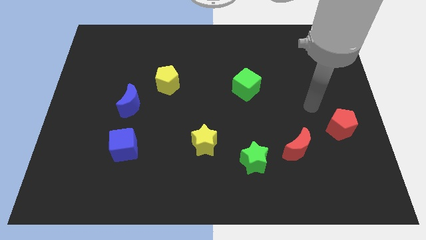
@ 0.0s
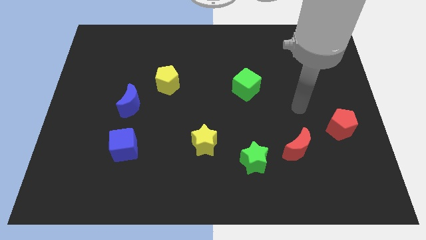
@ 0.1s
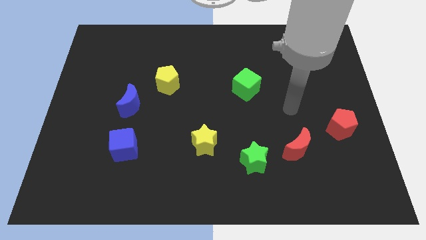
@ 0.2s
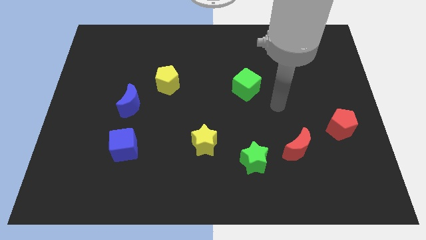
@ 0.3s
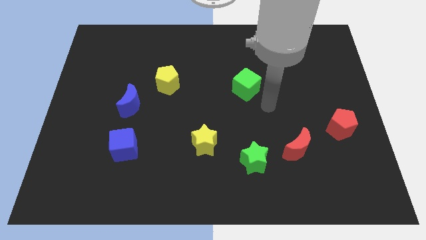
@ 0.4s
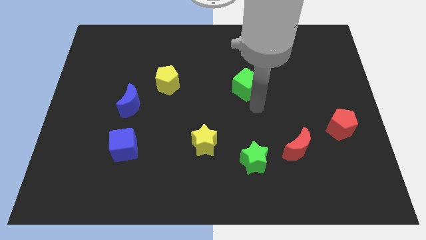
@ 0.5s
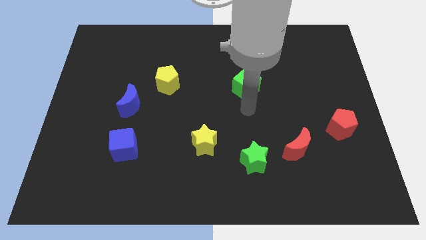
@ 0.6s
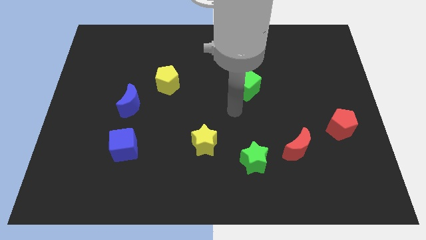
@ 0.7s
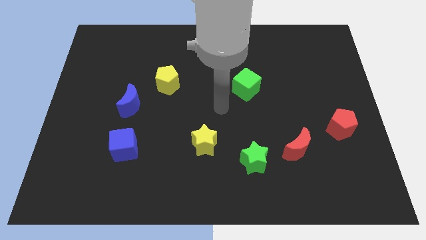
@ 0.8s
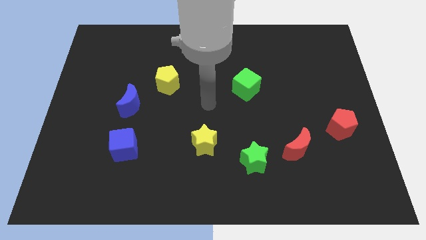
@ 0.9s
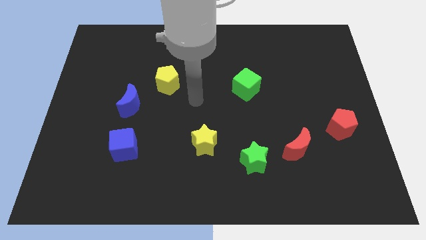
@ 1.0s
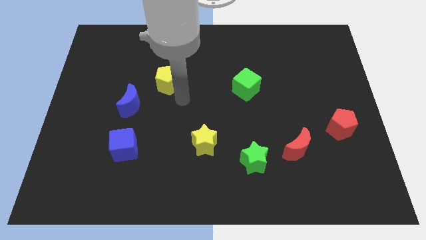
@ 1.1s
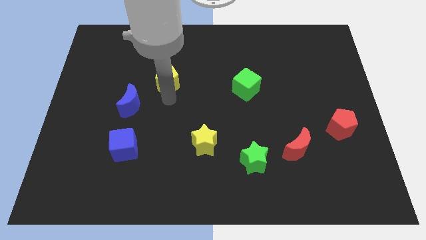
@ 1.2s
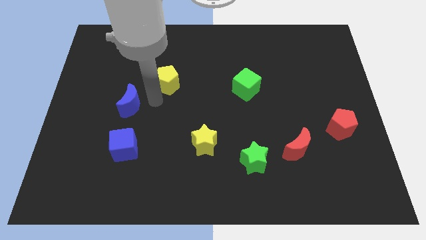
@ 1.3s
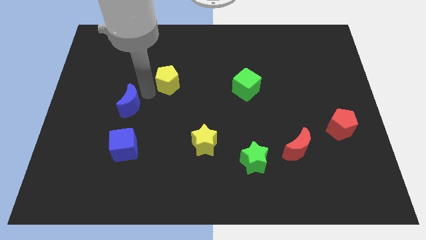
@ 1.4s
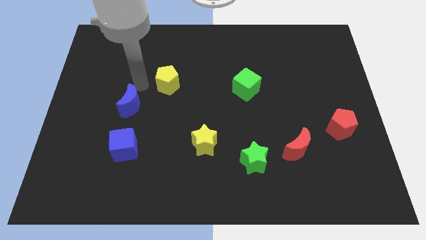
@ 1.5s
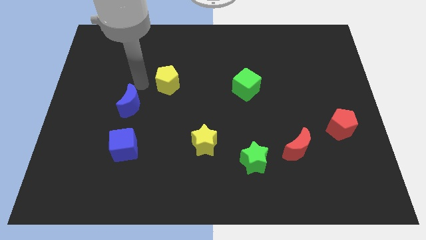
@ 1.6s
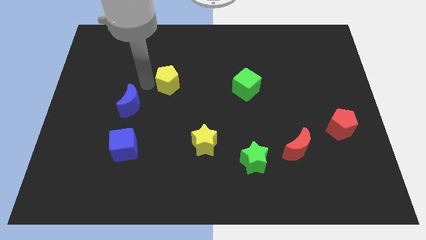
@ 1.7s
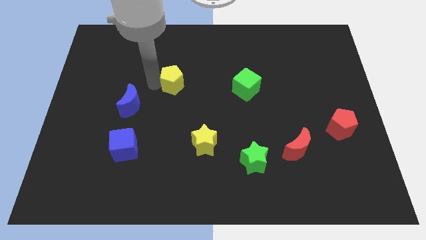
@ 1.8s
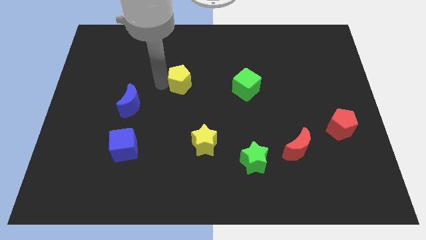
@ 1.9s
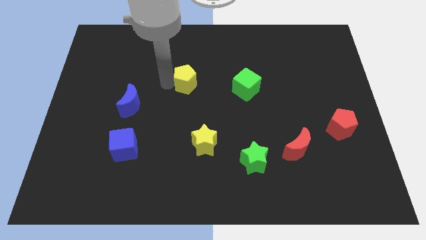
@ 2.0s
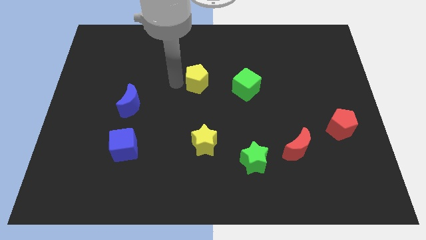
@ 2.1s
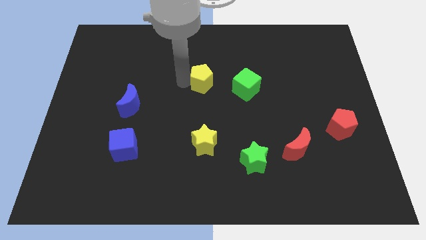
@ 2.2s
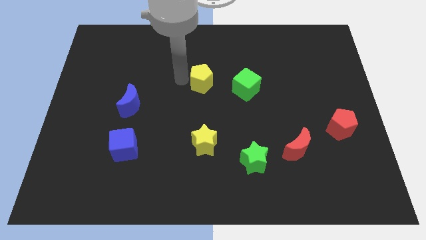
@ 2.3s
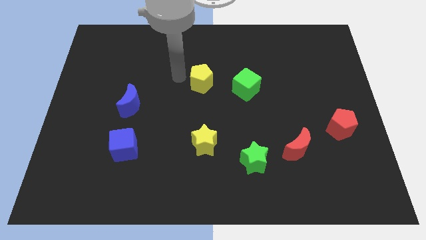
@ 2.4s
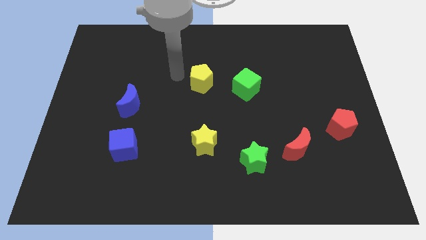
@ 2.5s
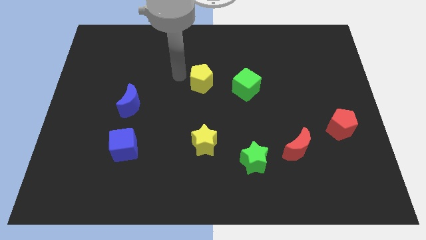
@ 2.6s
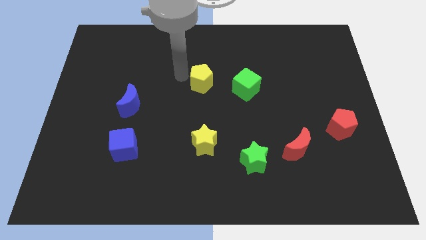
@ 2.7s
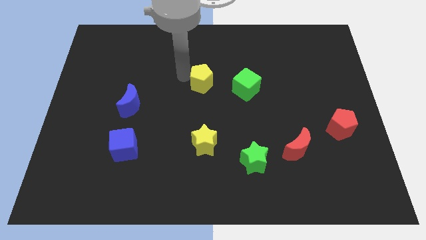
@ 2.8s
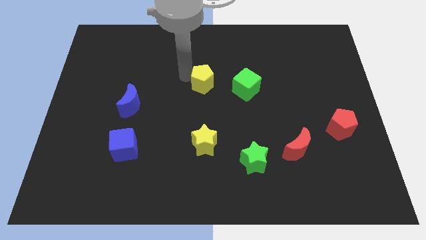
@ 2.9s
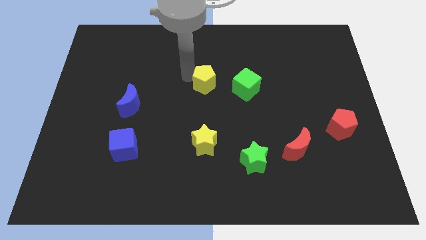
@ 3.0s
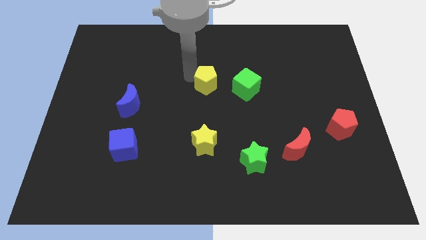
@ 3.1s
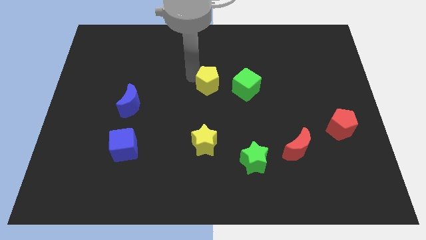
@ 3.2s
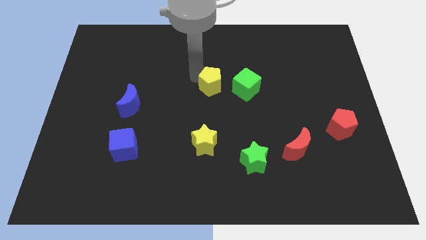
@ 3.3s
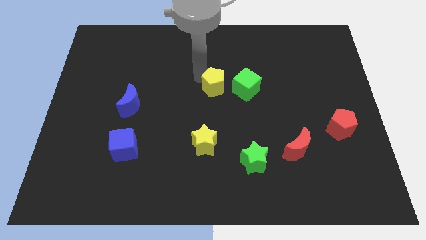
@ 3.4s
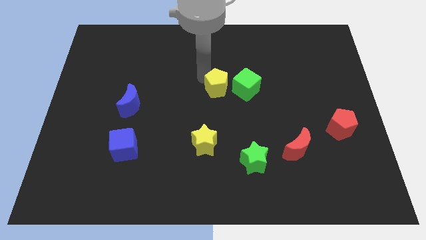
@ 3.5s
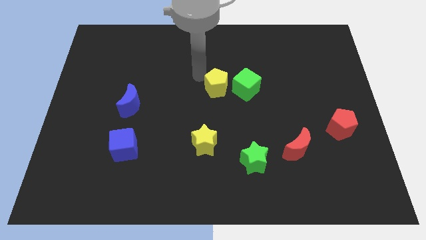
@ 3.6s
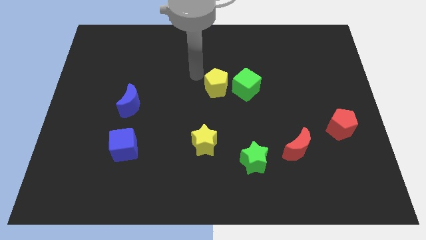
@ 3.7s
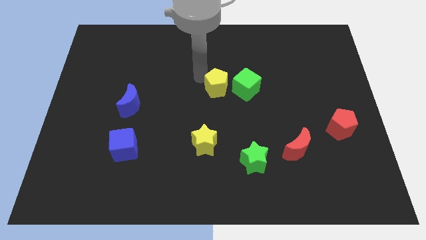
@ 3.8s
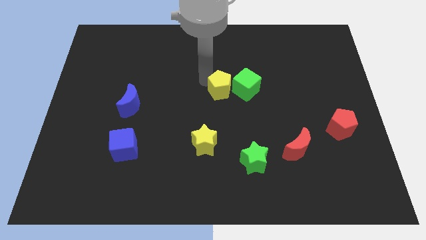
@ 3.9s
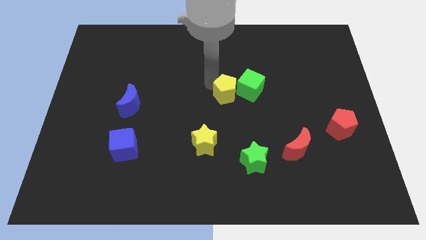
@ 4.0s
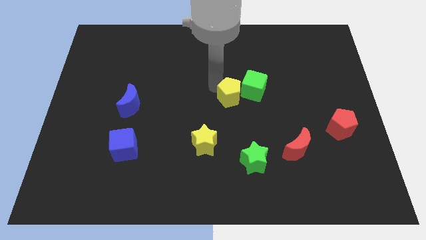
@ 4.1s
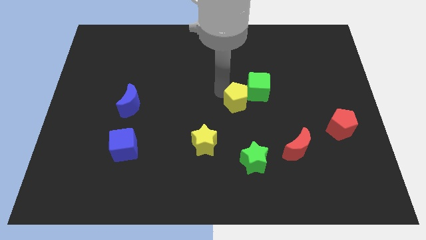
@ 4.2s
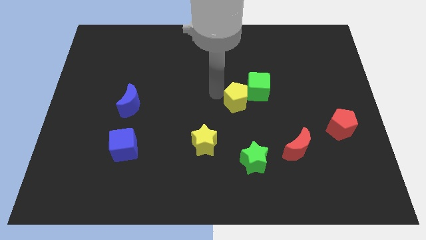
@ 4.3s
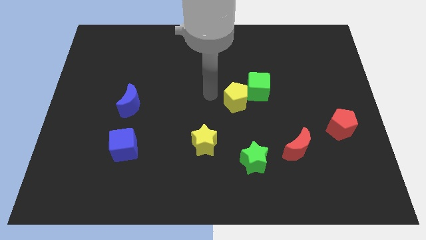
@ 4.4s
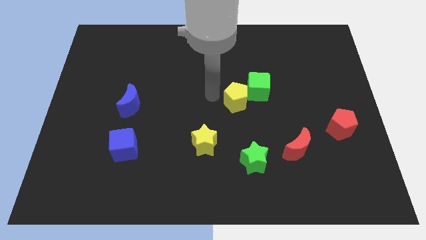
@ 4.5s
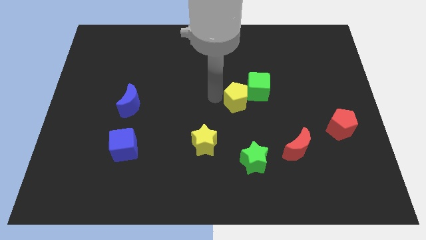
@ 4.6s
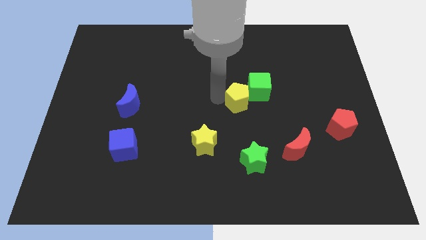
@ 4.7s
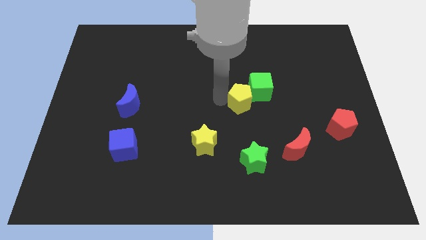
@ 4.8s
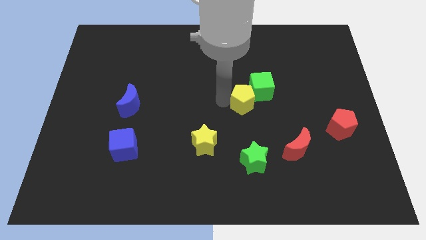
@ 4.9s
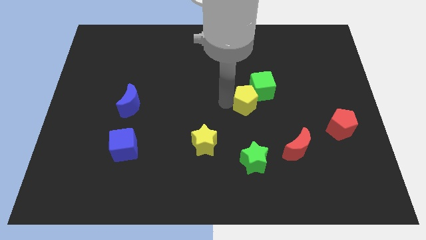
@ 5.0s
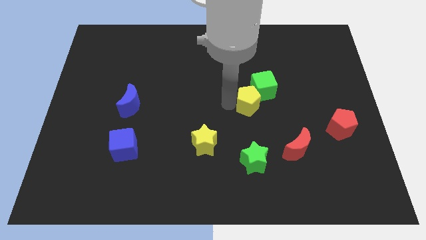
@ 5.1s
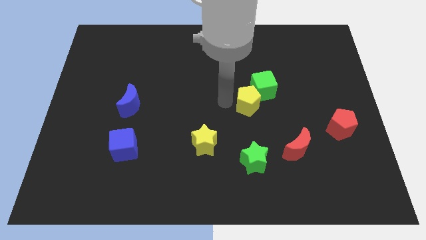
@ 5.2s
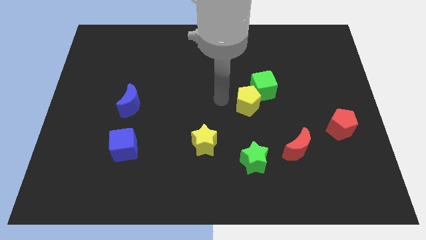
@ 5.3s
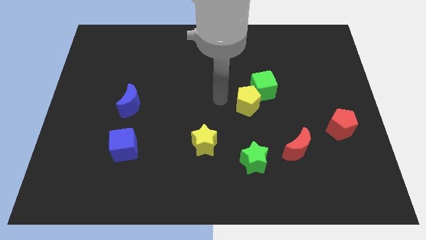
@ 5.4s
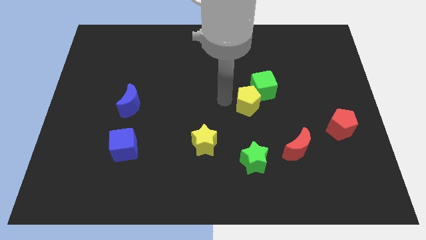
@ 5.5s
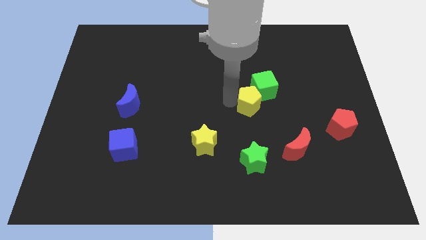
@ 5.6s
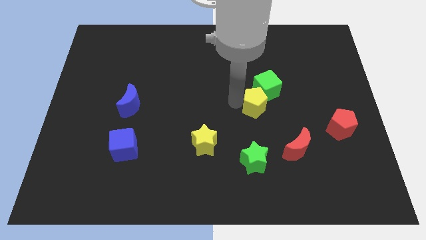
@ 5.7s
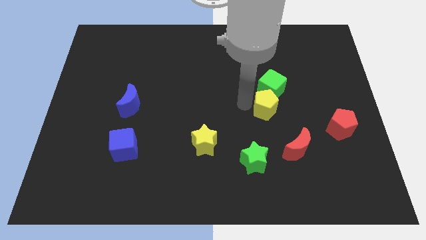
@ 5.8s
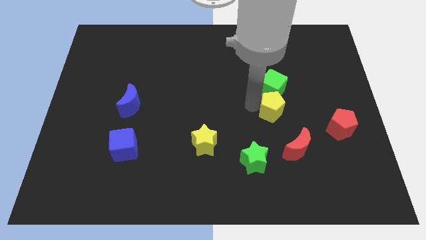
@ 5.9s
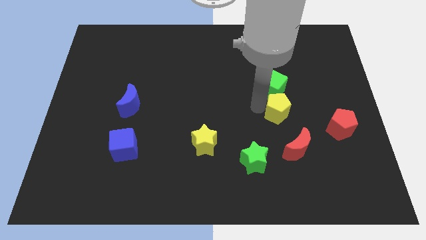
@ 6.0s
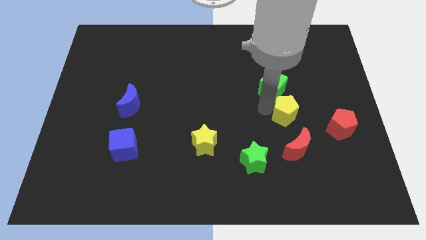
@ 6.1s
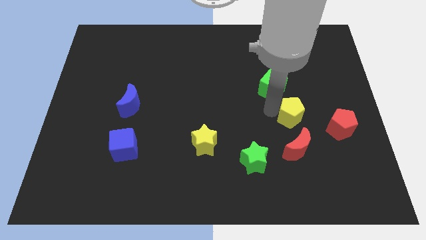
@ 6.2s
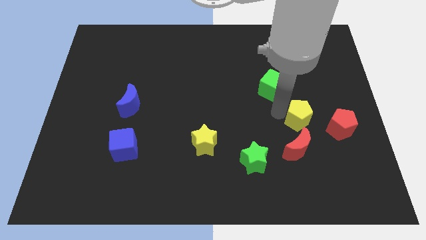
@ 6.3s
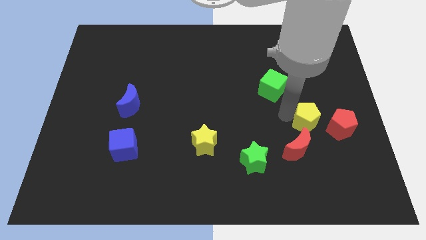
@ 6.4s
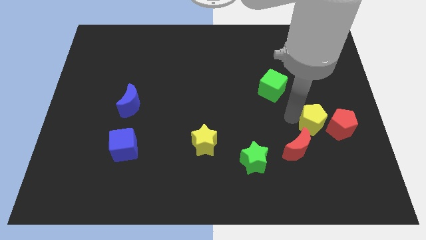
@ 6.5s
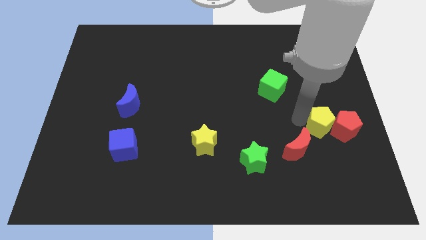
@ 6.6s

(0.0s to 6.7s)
move the yellow pentagon to the red pentagon

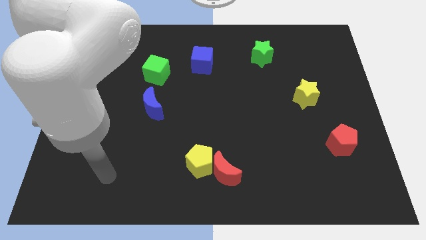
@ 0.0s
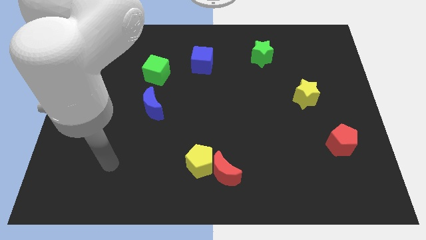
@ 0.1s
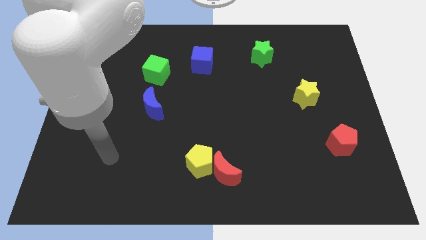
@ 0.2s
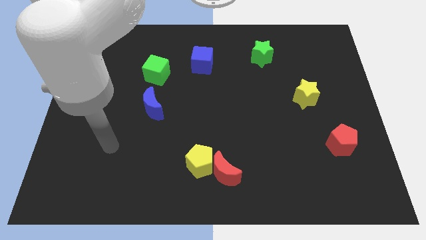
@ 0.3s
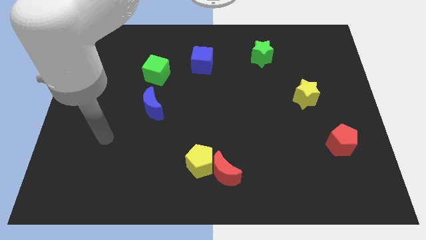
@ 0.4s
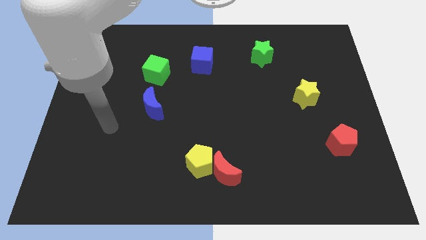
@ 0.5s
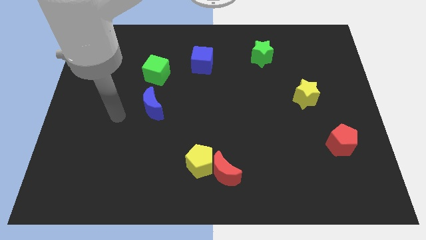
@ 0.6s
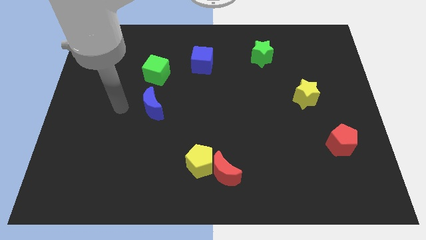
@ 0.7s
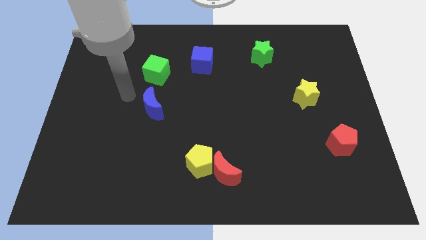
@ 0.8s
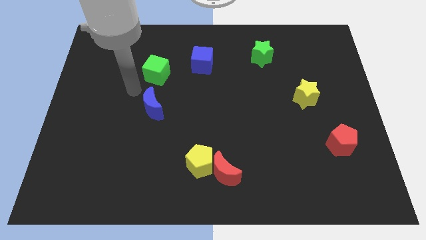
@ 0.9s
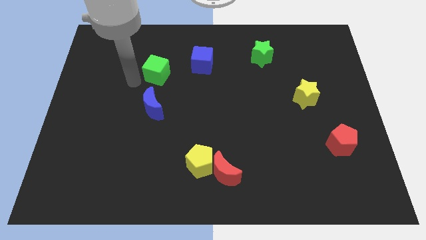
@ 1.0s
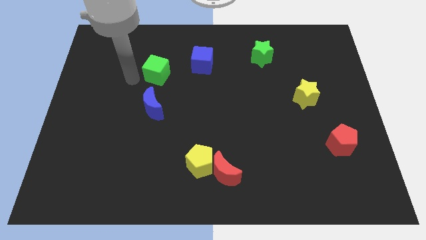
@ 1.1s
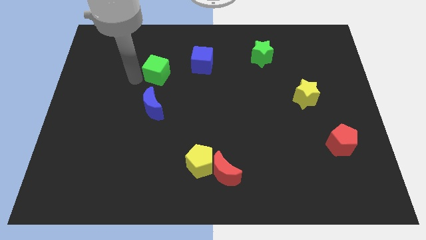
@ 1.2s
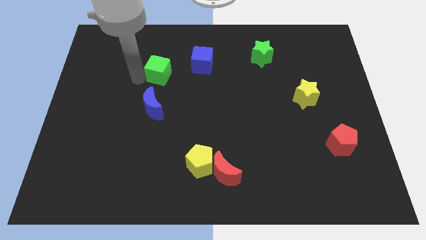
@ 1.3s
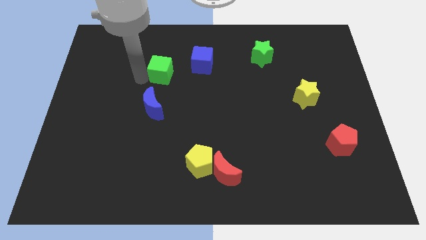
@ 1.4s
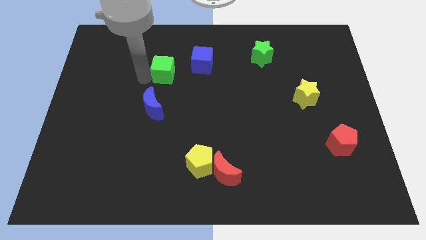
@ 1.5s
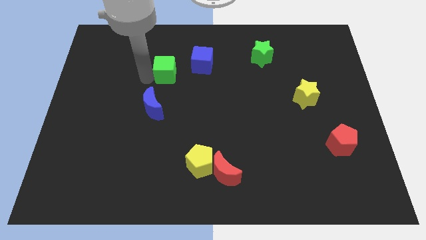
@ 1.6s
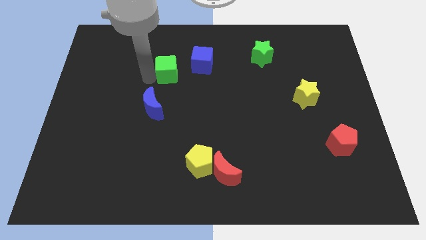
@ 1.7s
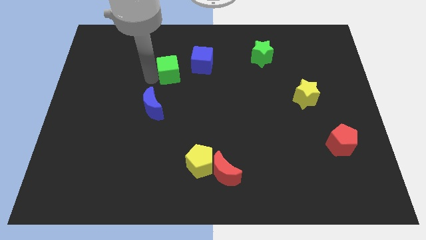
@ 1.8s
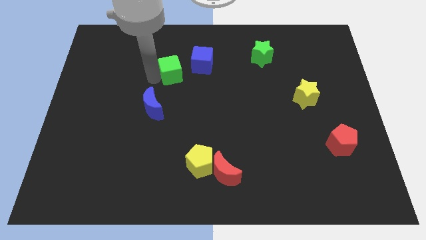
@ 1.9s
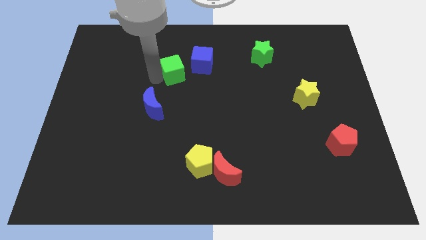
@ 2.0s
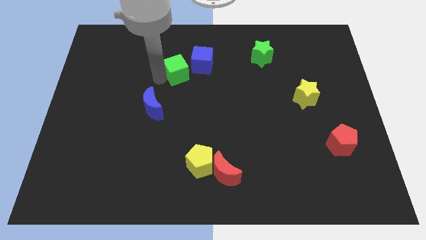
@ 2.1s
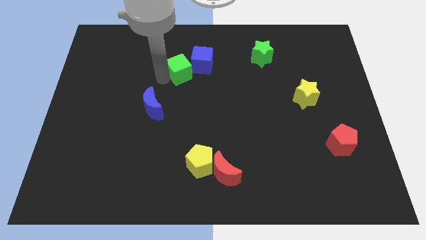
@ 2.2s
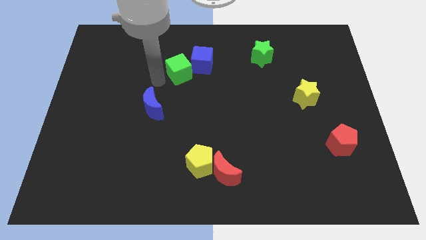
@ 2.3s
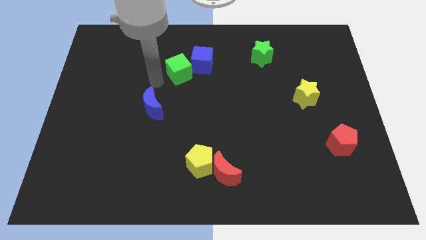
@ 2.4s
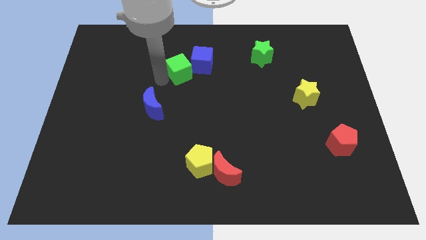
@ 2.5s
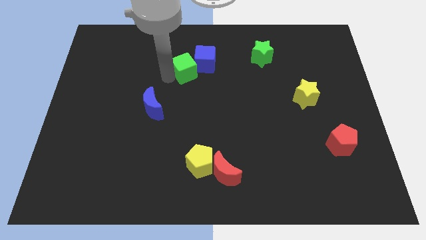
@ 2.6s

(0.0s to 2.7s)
move the green cube next to the blue cube
